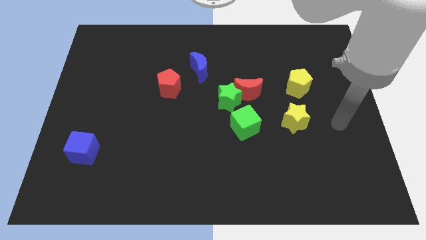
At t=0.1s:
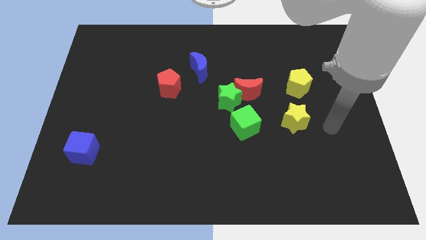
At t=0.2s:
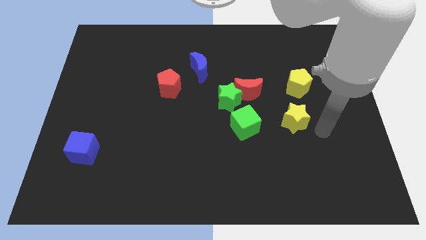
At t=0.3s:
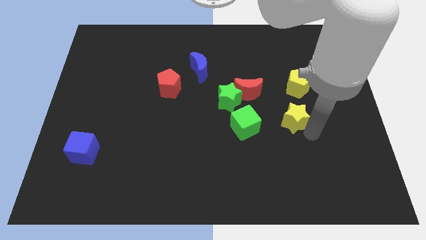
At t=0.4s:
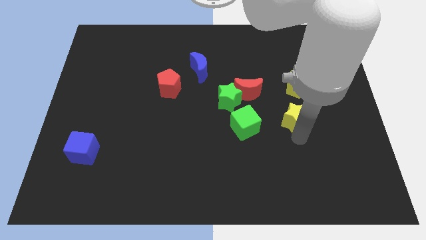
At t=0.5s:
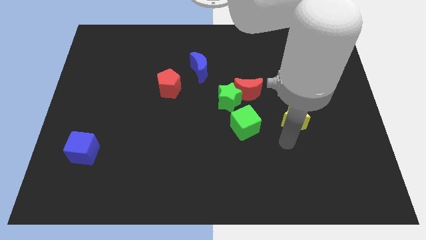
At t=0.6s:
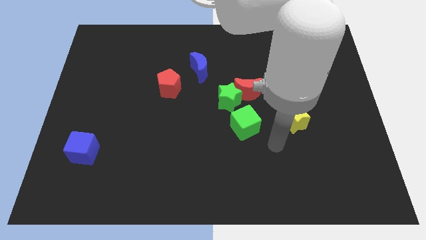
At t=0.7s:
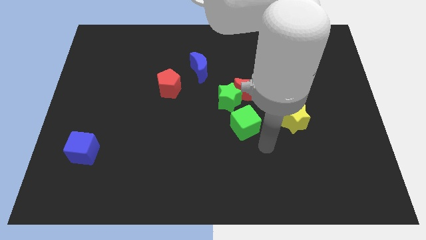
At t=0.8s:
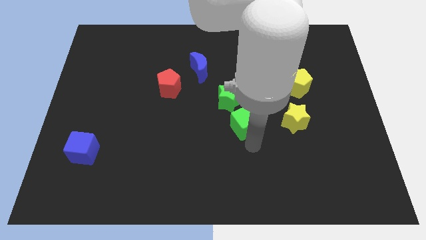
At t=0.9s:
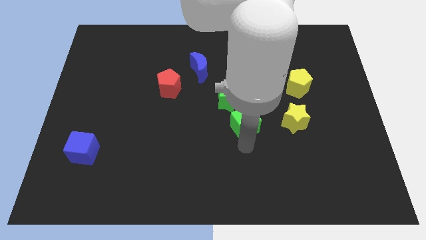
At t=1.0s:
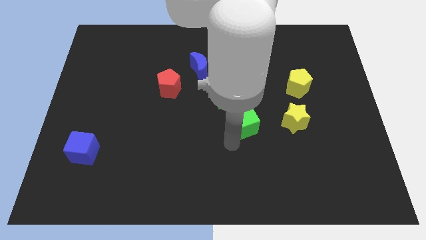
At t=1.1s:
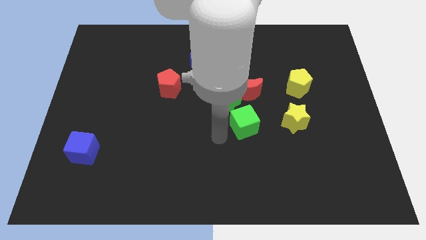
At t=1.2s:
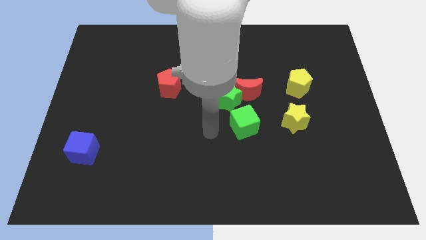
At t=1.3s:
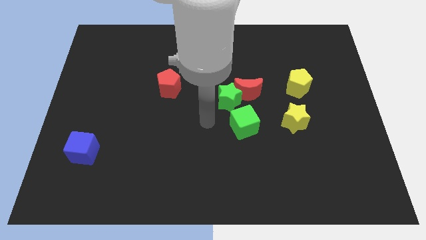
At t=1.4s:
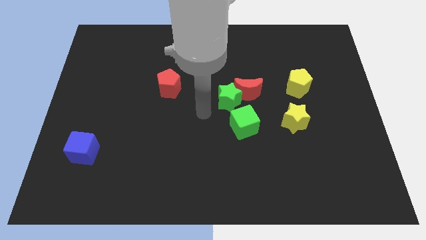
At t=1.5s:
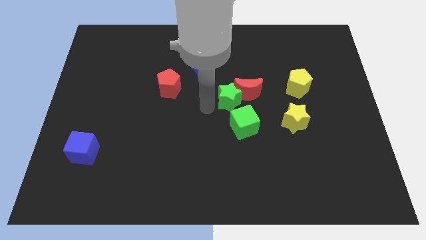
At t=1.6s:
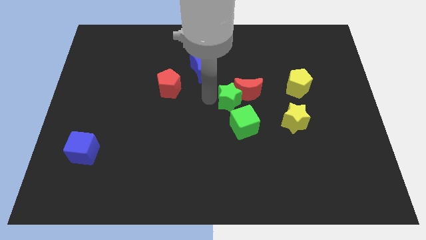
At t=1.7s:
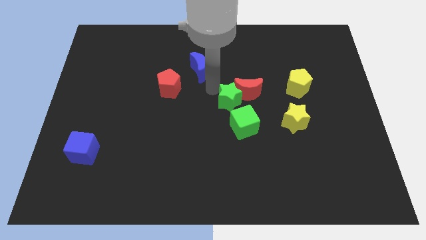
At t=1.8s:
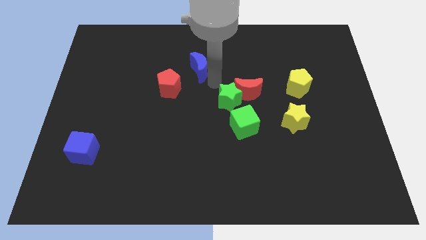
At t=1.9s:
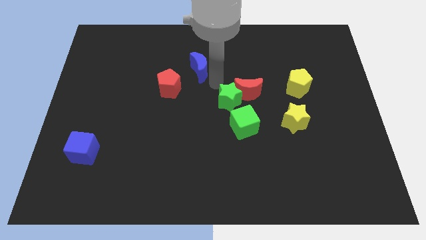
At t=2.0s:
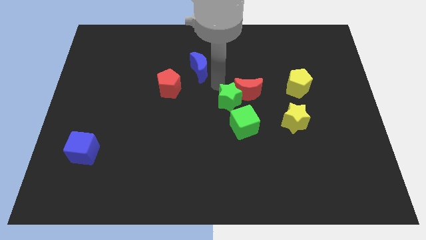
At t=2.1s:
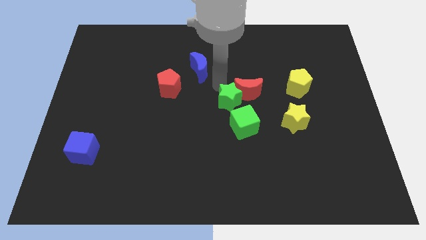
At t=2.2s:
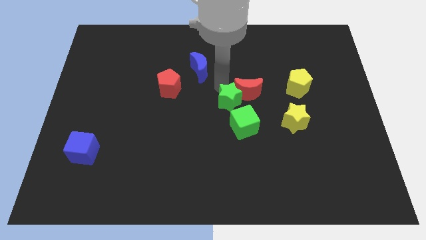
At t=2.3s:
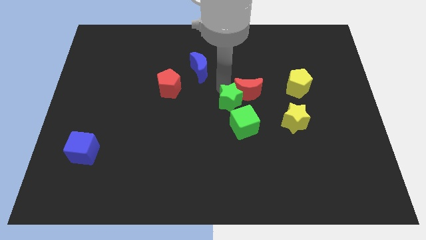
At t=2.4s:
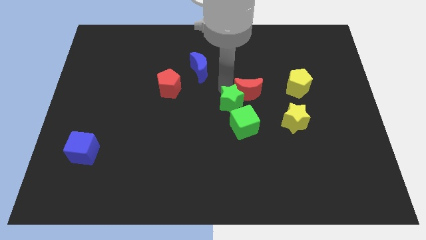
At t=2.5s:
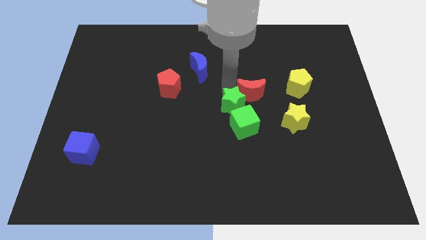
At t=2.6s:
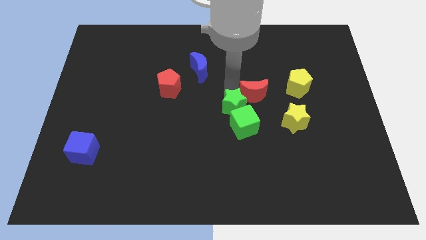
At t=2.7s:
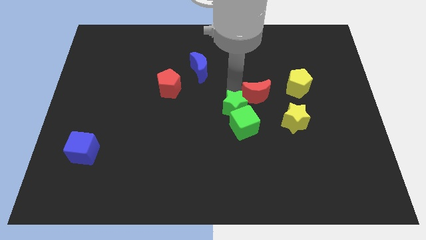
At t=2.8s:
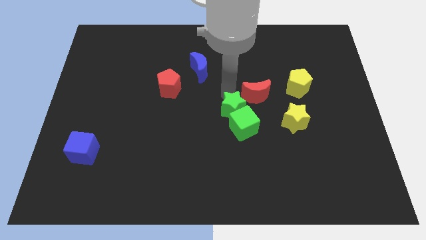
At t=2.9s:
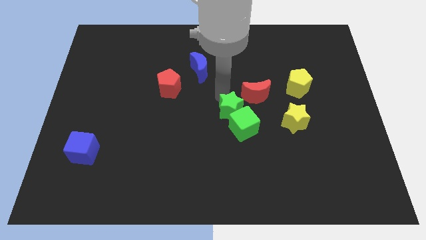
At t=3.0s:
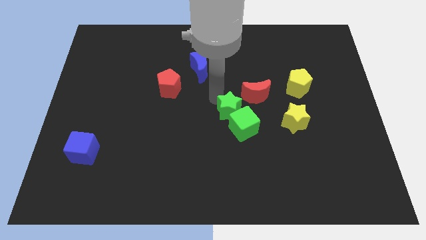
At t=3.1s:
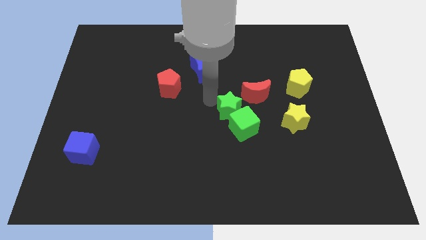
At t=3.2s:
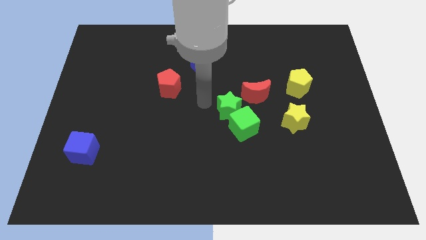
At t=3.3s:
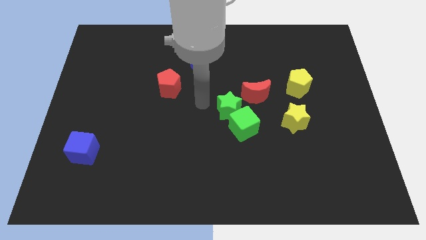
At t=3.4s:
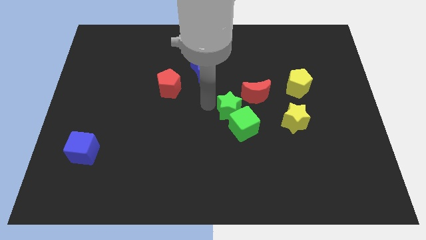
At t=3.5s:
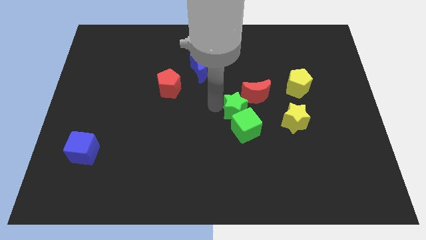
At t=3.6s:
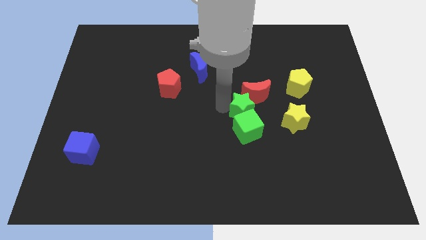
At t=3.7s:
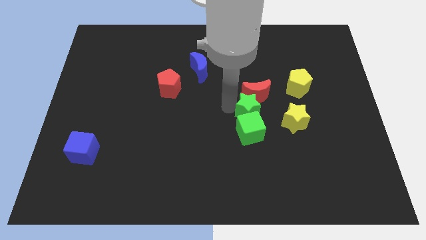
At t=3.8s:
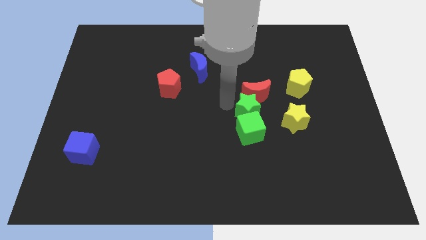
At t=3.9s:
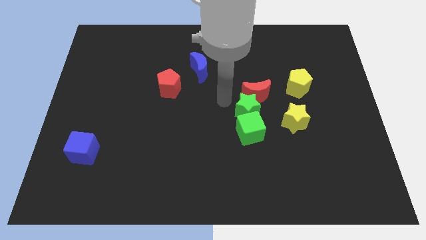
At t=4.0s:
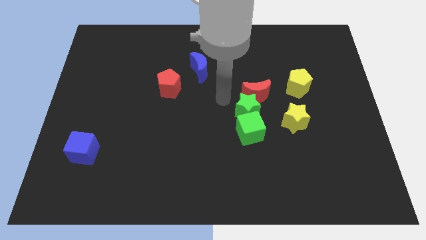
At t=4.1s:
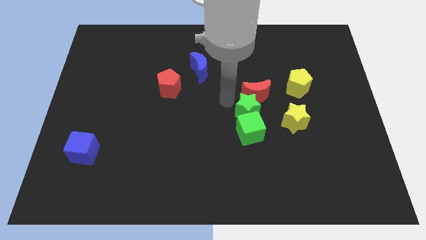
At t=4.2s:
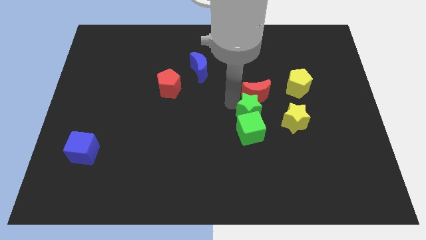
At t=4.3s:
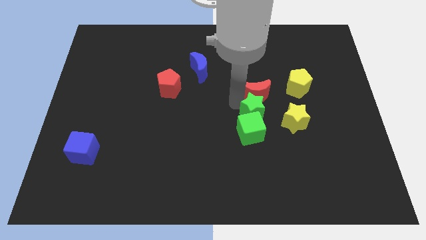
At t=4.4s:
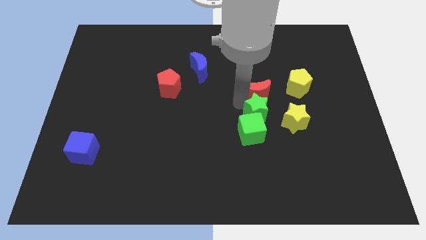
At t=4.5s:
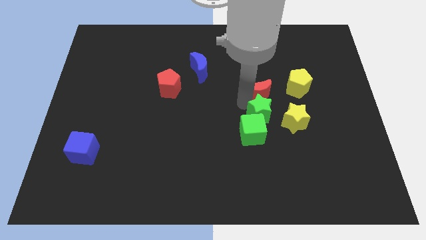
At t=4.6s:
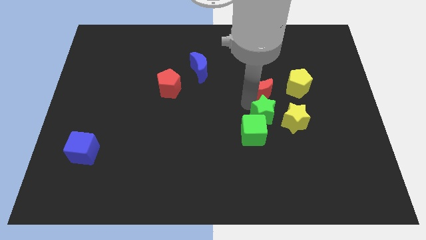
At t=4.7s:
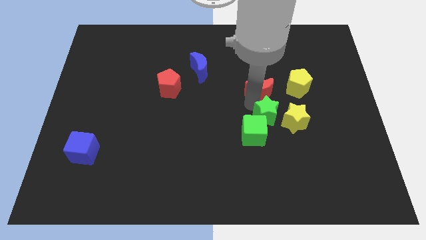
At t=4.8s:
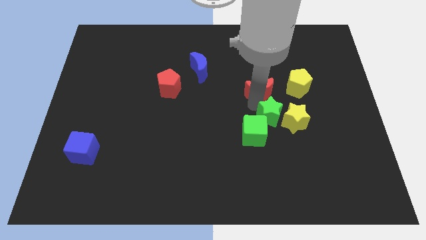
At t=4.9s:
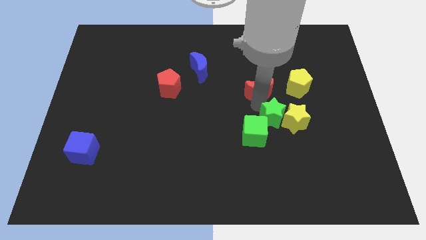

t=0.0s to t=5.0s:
slide the green star to the bottom left of the yellow star

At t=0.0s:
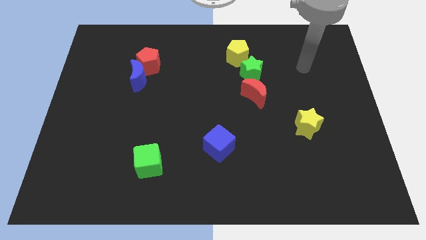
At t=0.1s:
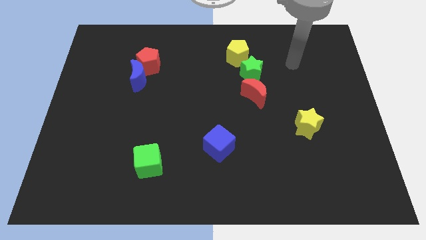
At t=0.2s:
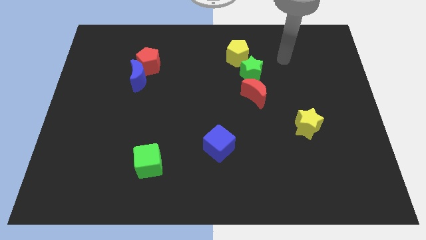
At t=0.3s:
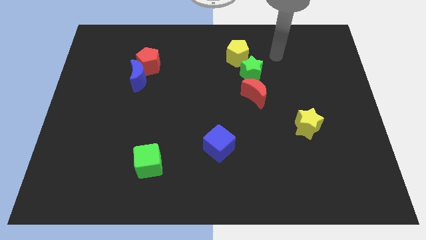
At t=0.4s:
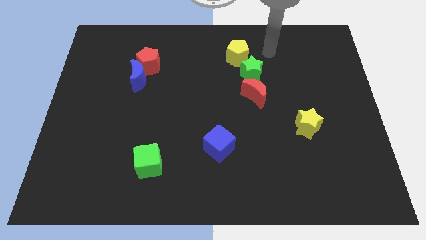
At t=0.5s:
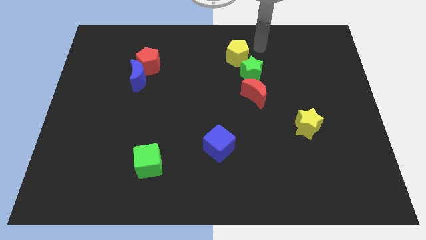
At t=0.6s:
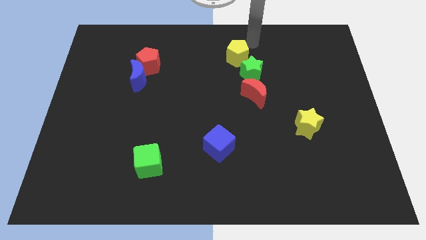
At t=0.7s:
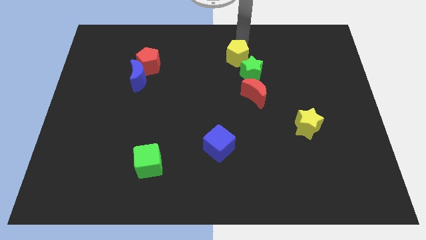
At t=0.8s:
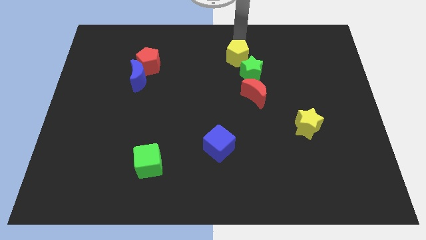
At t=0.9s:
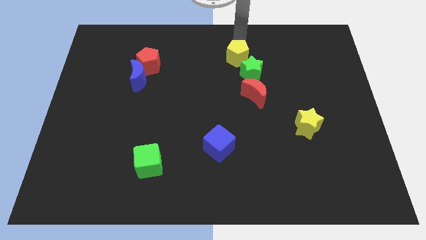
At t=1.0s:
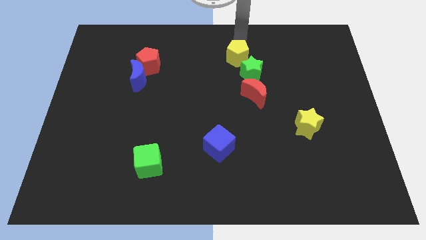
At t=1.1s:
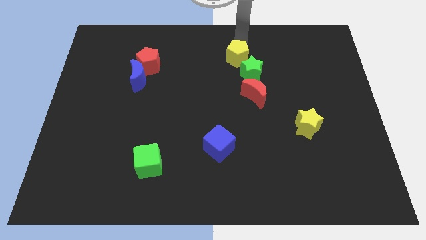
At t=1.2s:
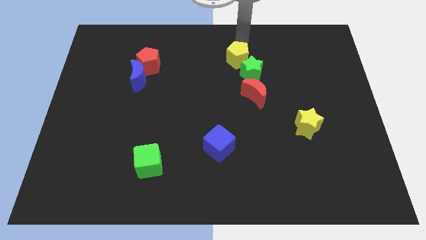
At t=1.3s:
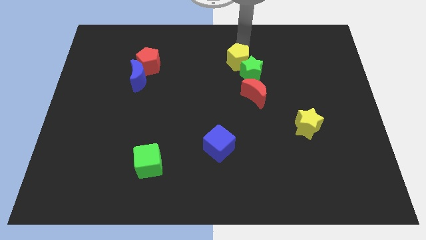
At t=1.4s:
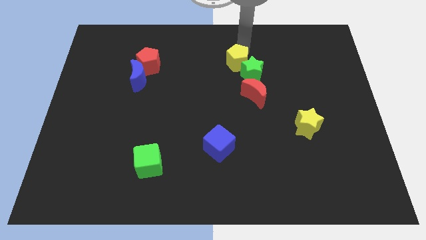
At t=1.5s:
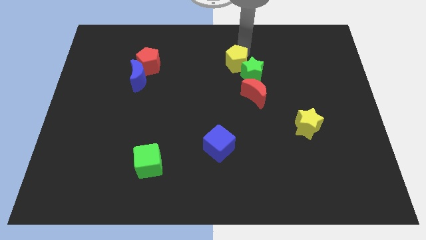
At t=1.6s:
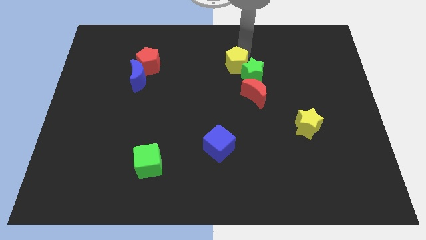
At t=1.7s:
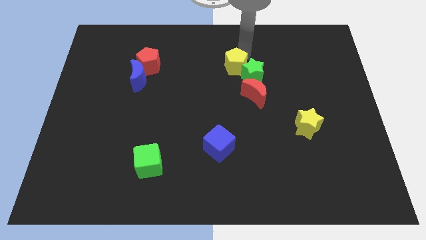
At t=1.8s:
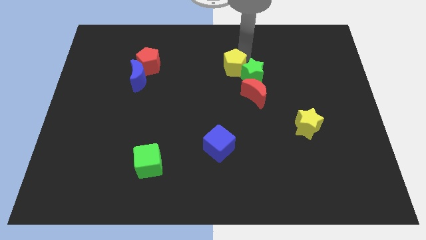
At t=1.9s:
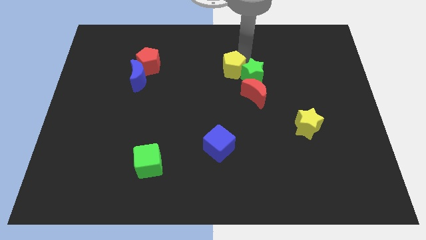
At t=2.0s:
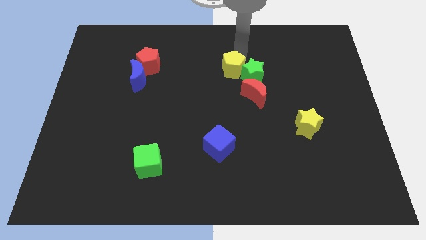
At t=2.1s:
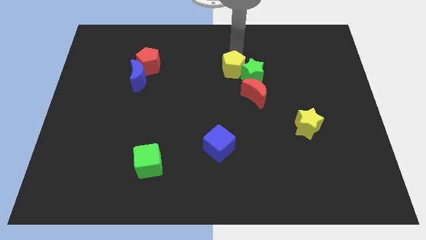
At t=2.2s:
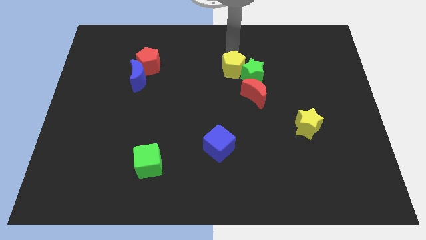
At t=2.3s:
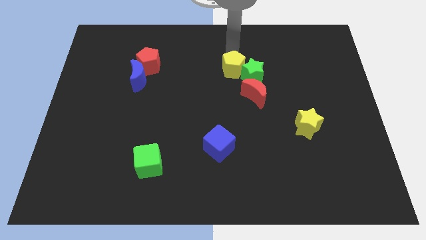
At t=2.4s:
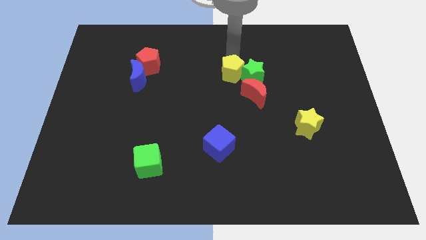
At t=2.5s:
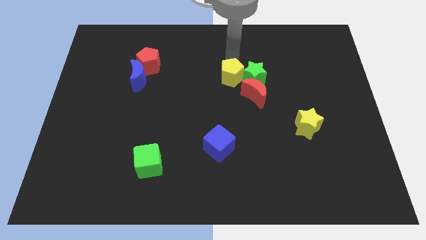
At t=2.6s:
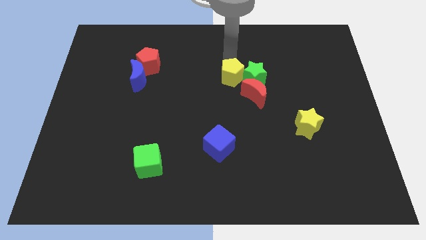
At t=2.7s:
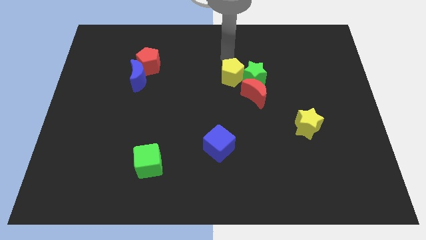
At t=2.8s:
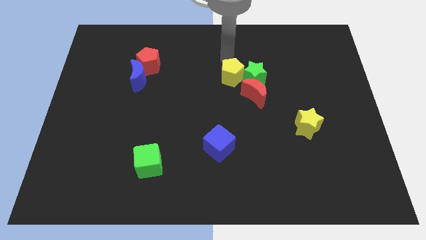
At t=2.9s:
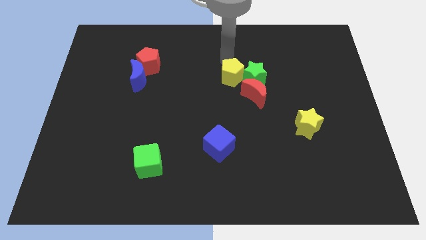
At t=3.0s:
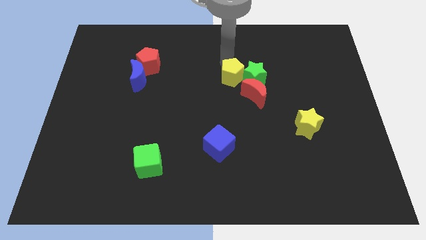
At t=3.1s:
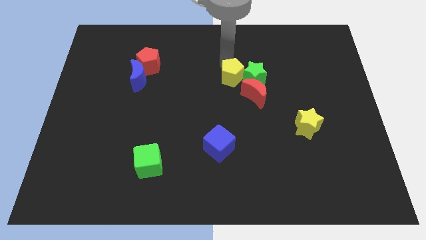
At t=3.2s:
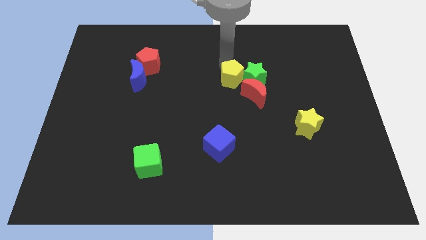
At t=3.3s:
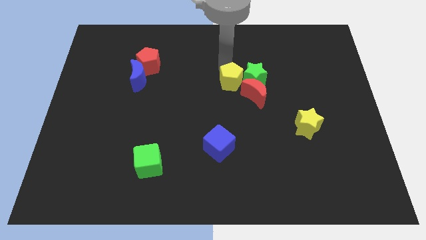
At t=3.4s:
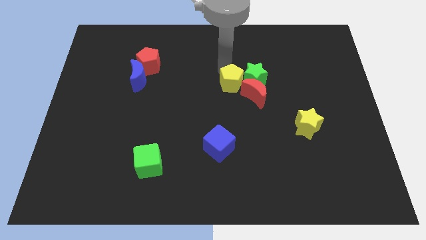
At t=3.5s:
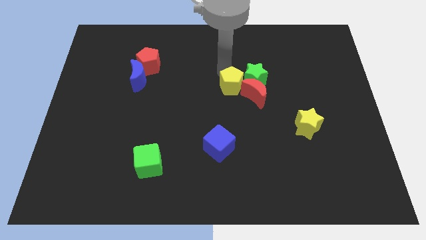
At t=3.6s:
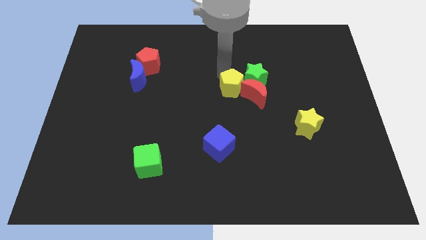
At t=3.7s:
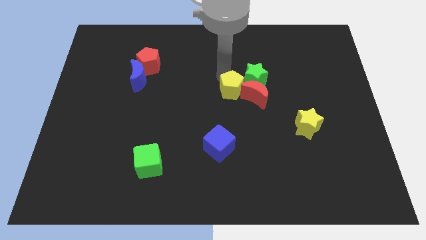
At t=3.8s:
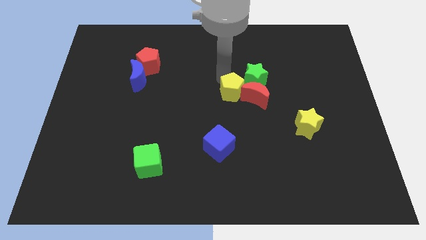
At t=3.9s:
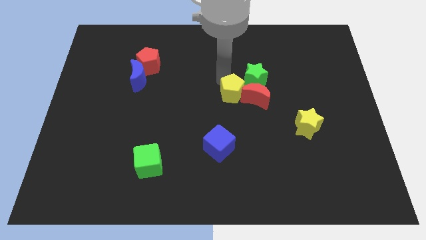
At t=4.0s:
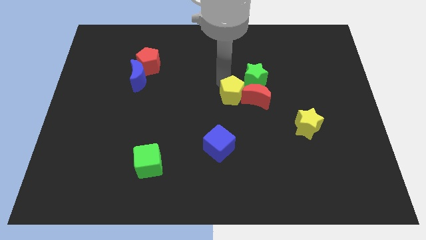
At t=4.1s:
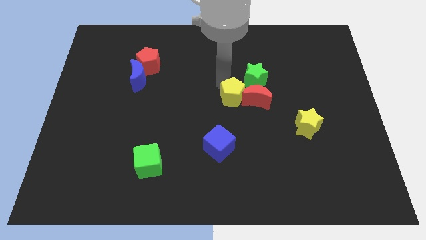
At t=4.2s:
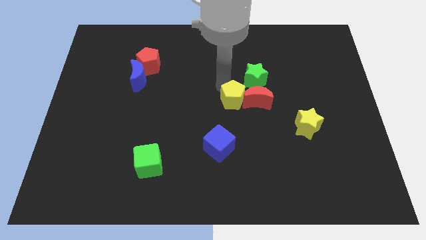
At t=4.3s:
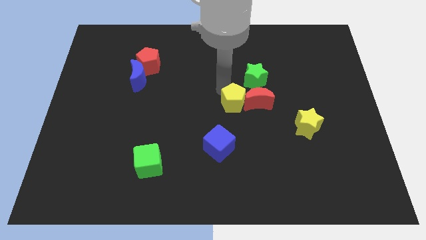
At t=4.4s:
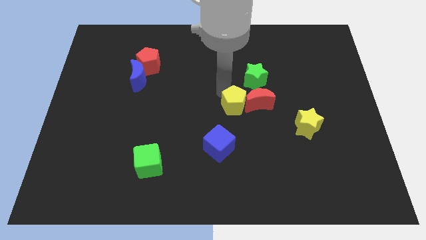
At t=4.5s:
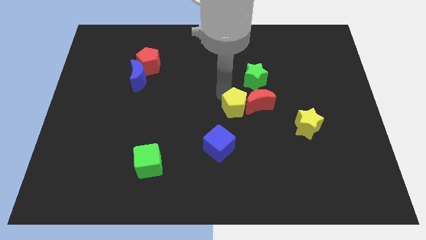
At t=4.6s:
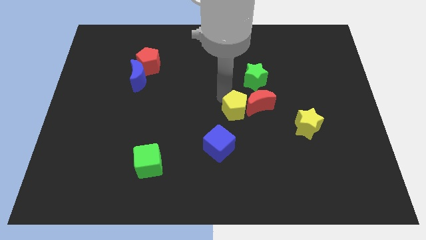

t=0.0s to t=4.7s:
push the yellow pentagon to the top right side of the blue cube
